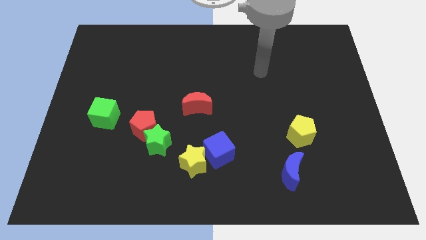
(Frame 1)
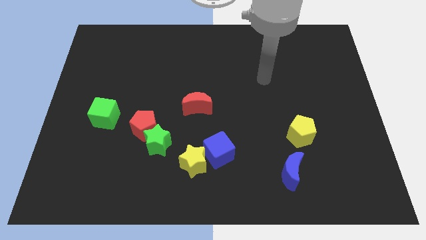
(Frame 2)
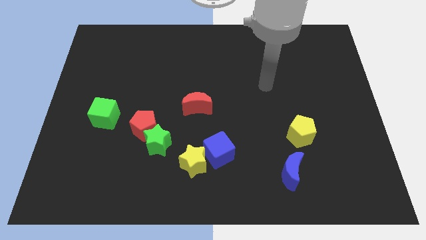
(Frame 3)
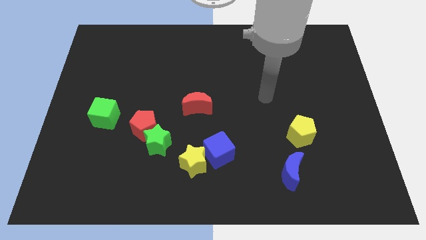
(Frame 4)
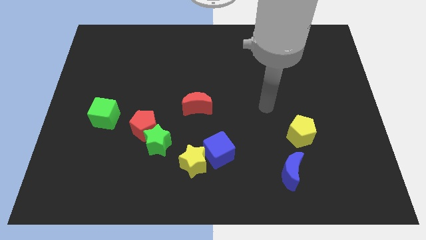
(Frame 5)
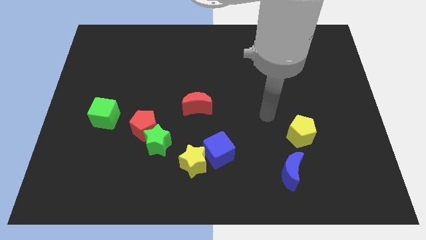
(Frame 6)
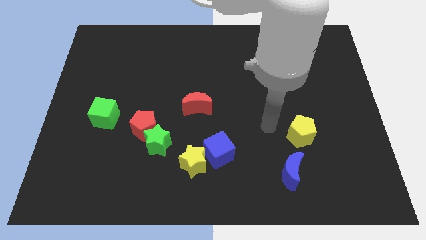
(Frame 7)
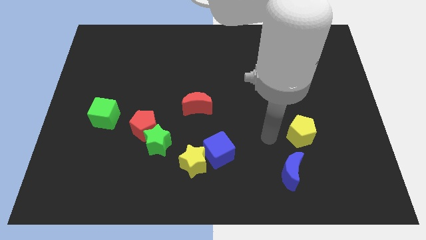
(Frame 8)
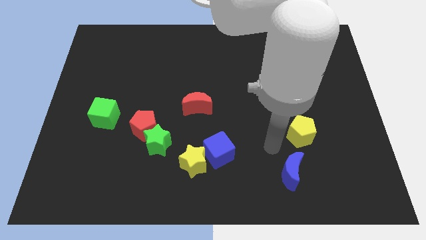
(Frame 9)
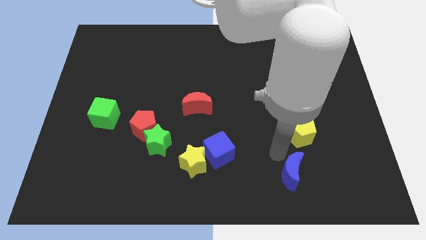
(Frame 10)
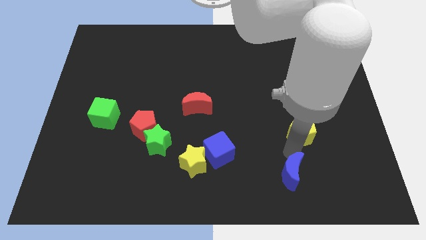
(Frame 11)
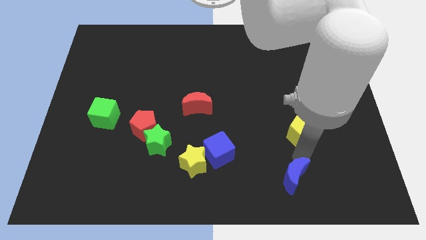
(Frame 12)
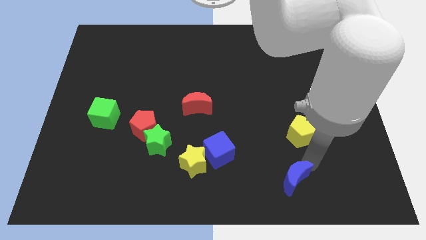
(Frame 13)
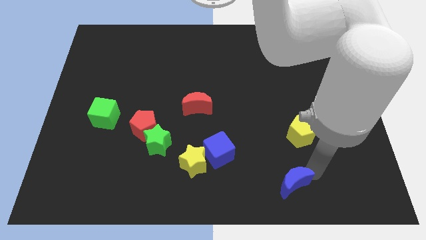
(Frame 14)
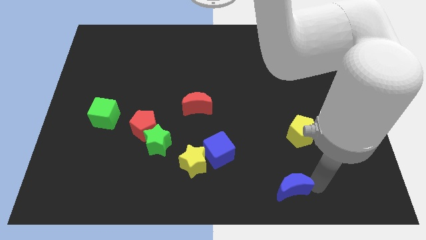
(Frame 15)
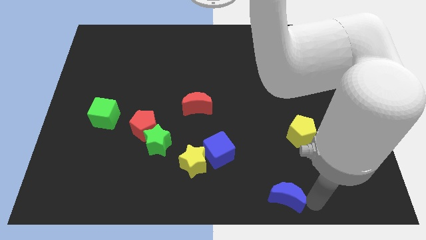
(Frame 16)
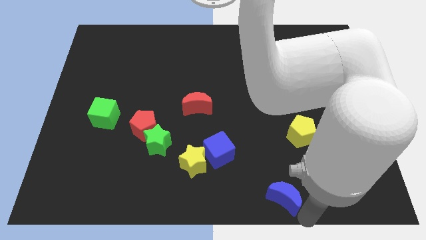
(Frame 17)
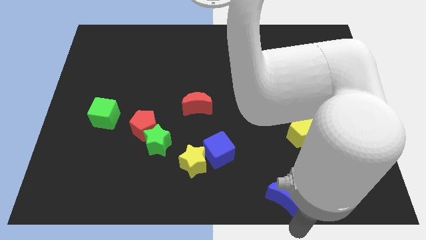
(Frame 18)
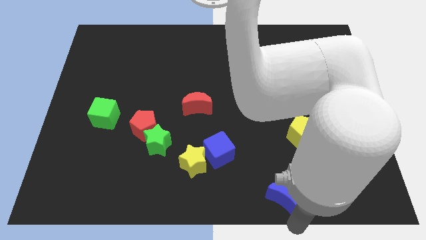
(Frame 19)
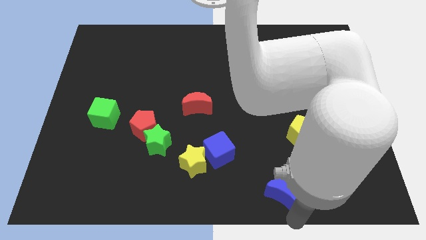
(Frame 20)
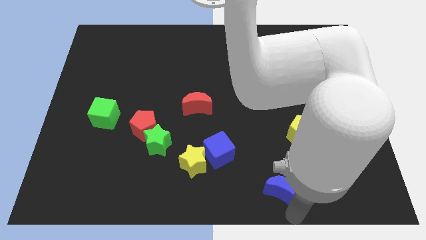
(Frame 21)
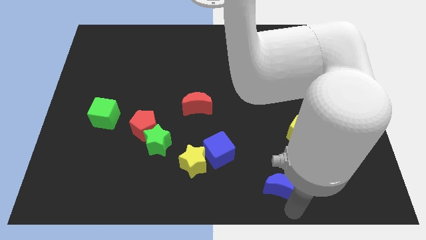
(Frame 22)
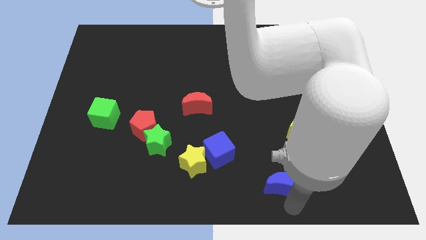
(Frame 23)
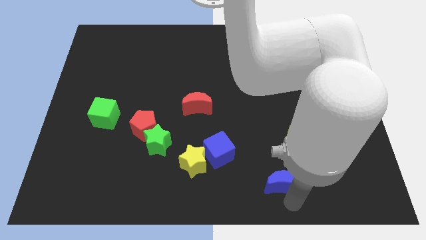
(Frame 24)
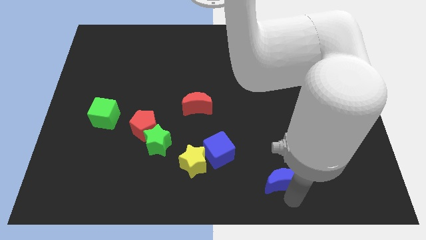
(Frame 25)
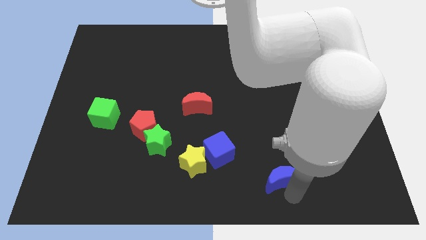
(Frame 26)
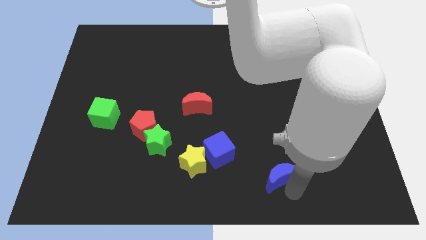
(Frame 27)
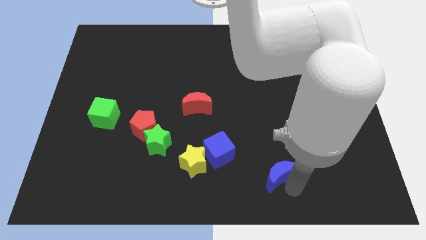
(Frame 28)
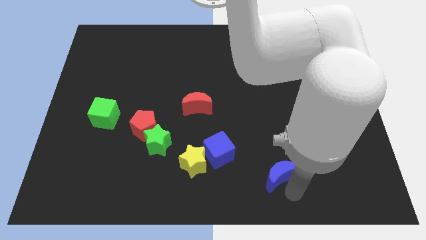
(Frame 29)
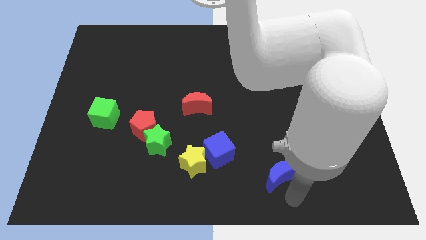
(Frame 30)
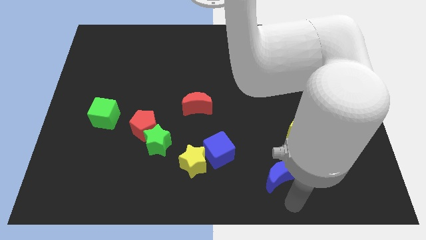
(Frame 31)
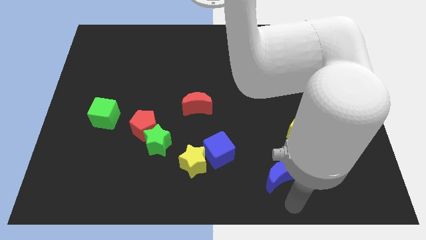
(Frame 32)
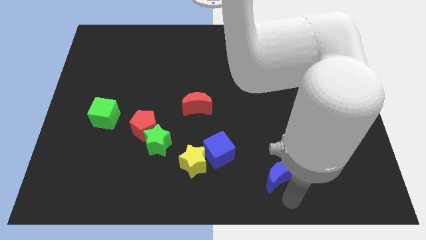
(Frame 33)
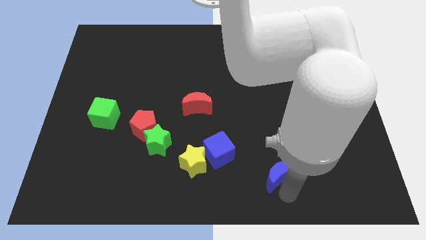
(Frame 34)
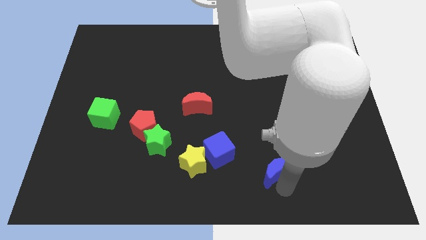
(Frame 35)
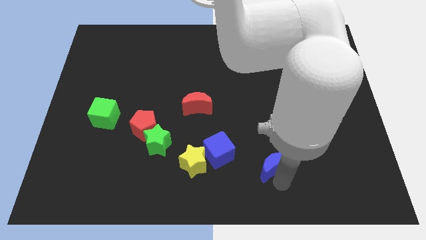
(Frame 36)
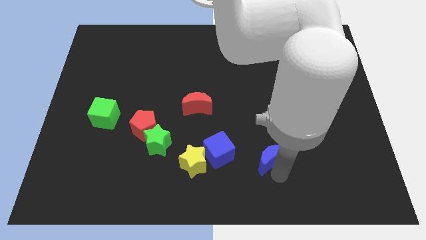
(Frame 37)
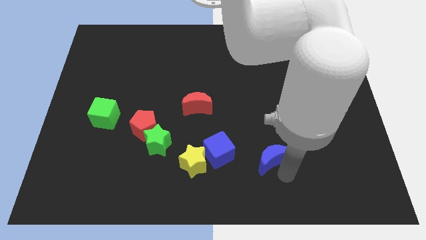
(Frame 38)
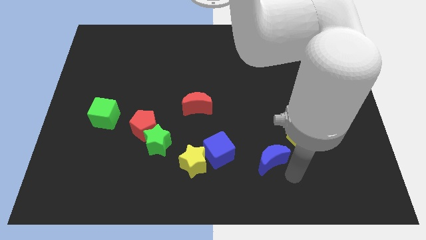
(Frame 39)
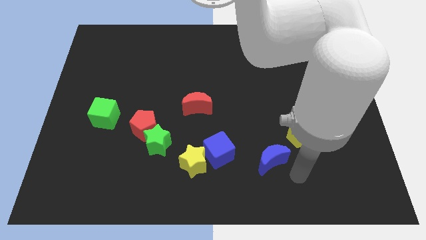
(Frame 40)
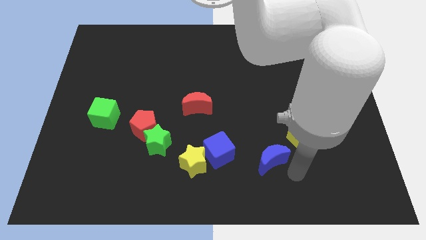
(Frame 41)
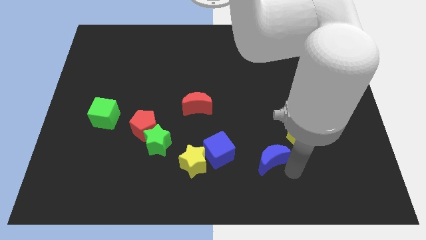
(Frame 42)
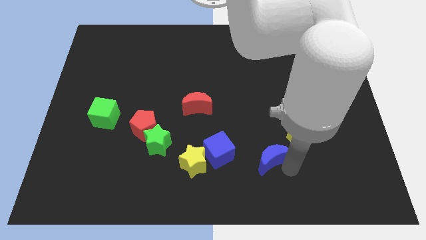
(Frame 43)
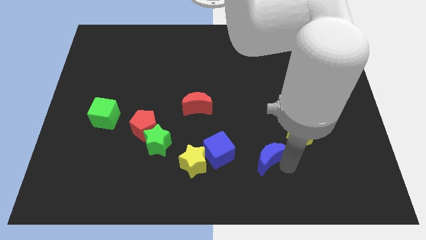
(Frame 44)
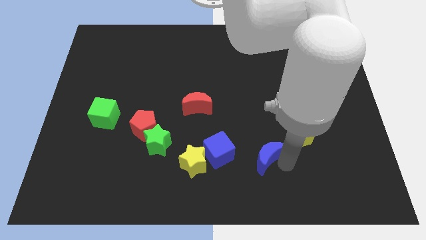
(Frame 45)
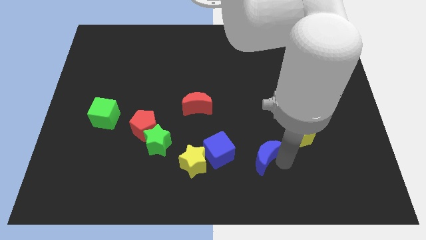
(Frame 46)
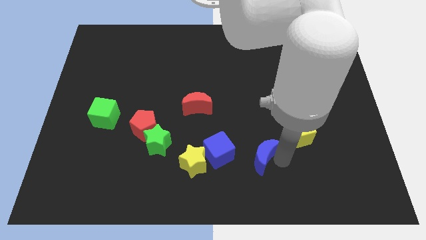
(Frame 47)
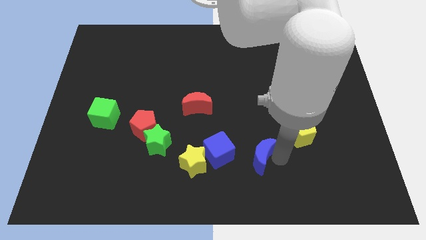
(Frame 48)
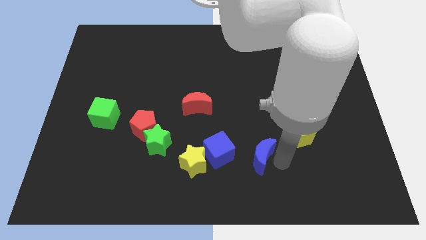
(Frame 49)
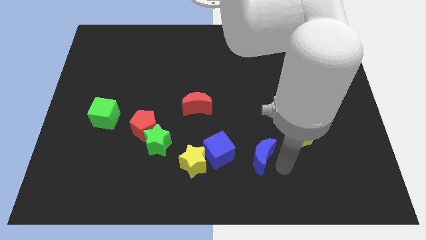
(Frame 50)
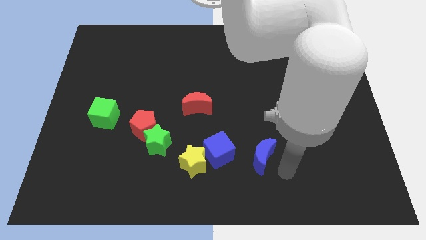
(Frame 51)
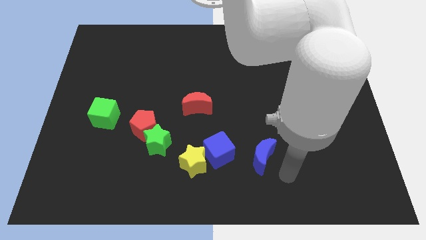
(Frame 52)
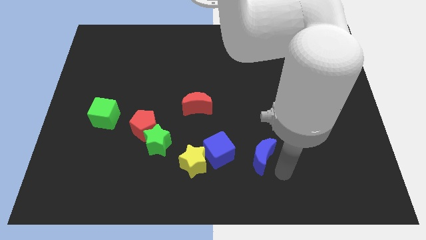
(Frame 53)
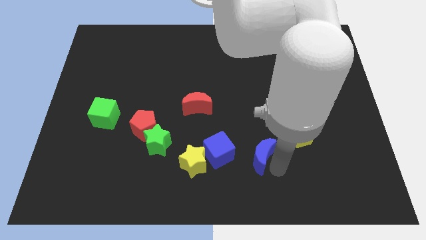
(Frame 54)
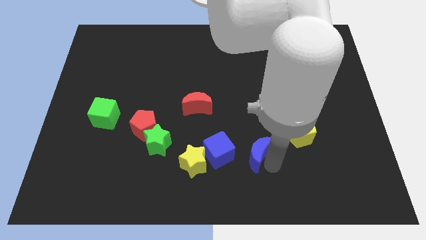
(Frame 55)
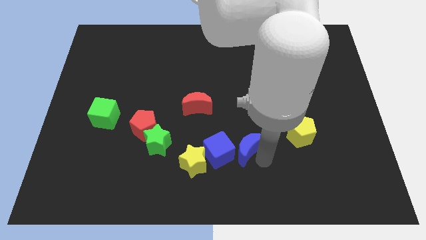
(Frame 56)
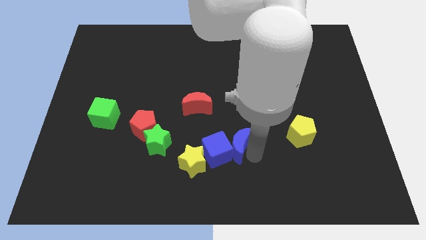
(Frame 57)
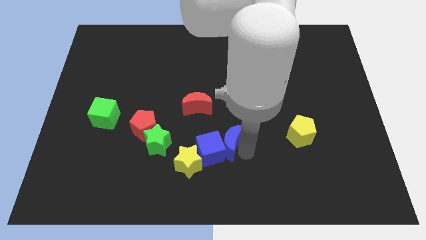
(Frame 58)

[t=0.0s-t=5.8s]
push the blue moon diagonally down and to the right of the red moon
